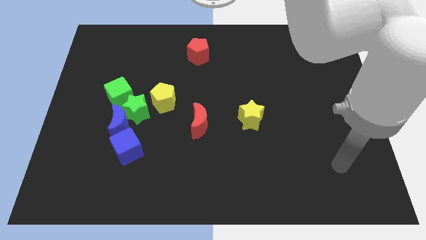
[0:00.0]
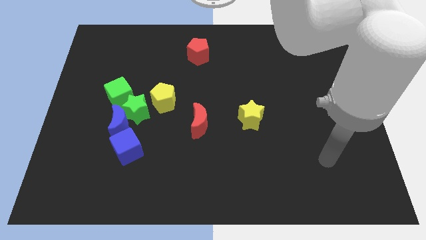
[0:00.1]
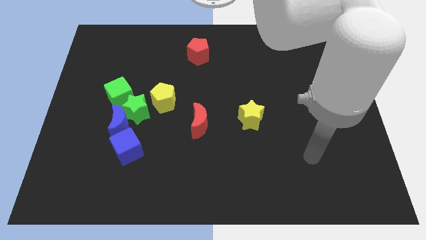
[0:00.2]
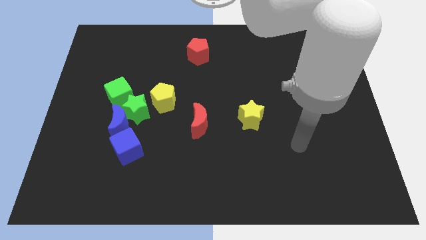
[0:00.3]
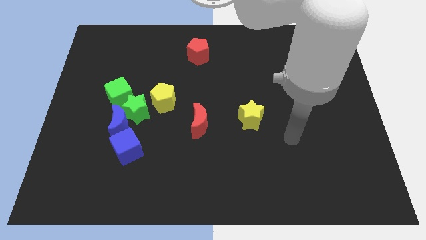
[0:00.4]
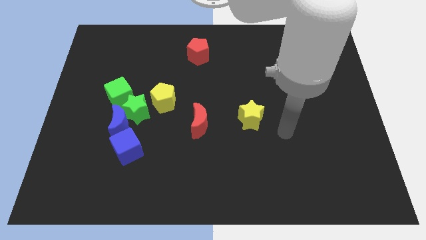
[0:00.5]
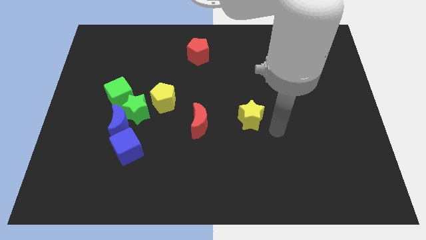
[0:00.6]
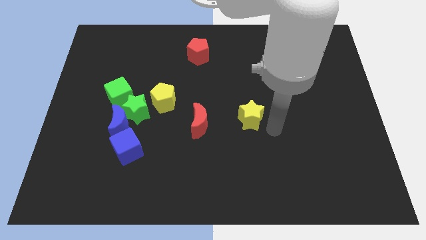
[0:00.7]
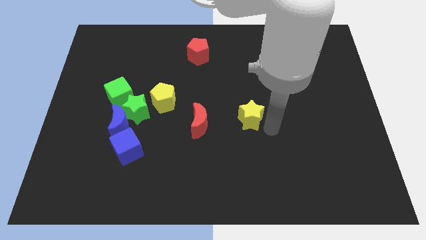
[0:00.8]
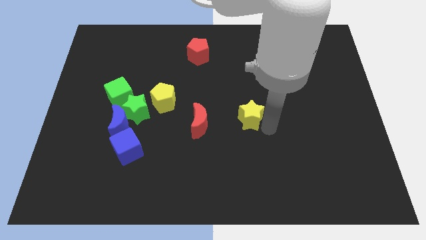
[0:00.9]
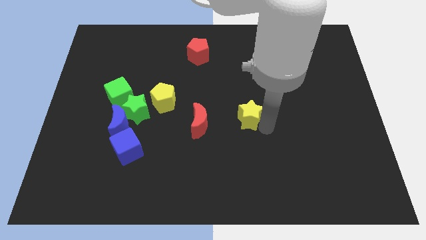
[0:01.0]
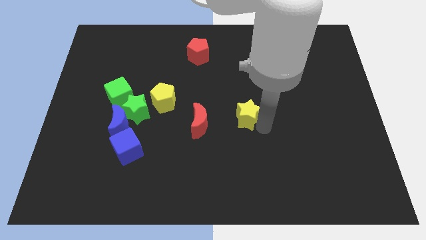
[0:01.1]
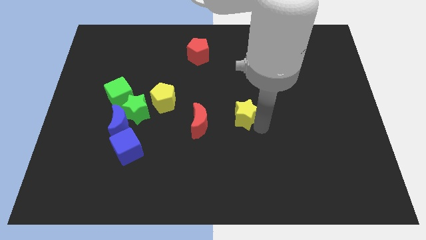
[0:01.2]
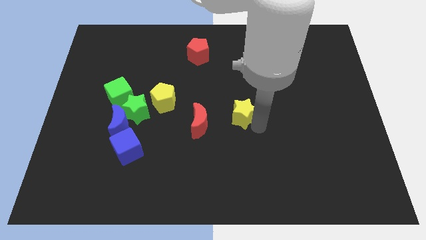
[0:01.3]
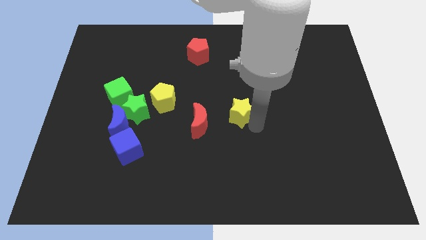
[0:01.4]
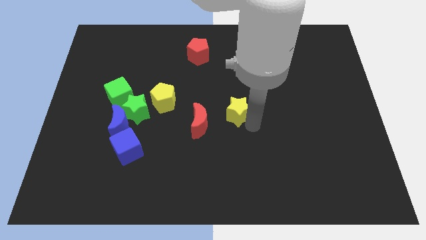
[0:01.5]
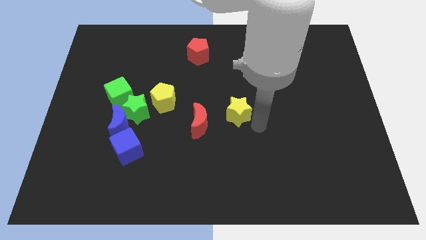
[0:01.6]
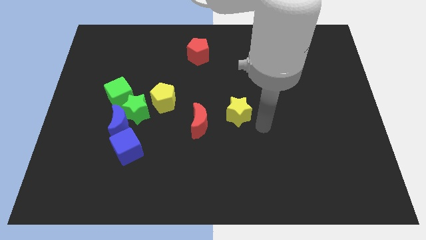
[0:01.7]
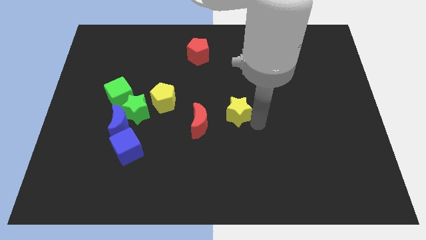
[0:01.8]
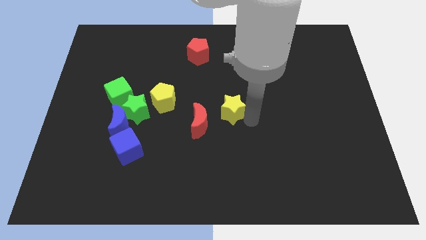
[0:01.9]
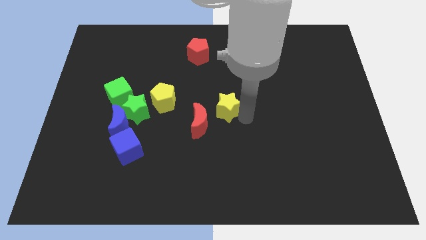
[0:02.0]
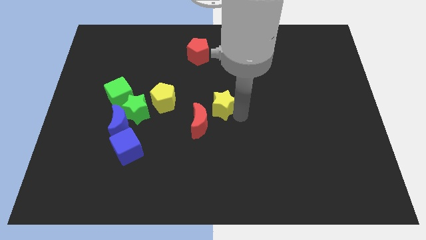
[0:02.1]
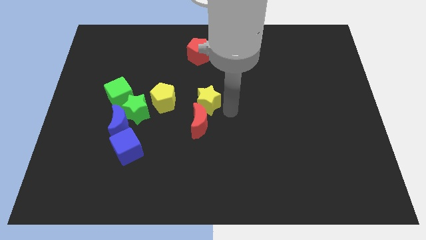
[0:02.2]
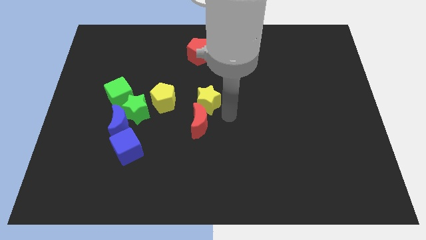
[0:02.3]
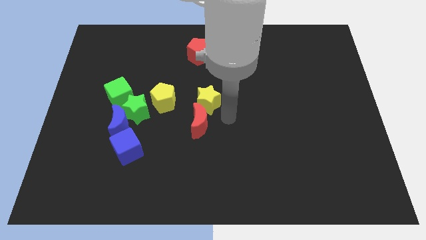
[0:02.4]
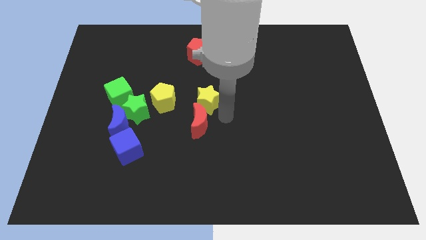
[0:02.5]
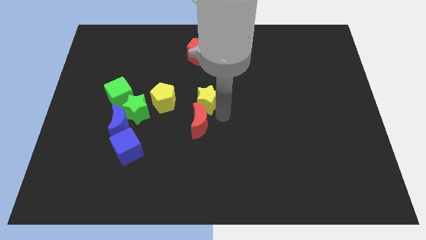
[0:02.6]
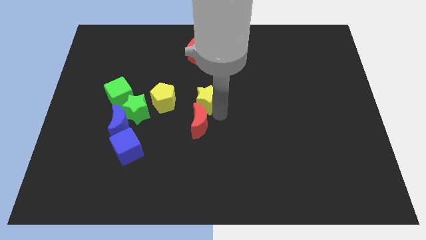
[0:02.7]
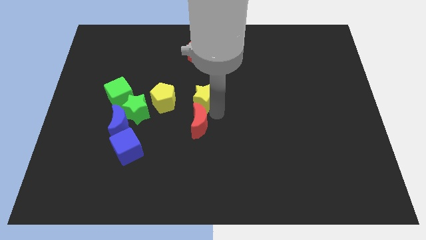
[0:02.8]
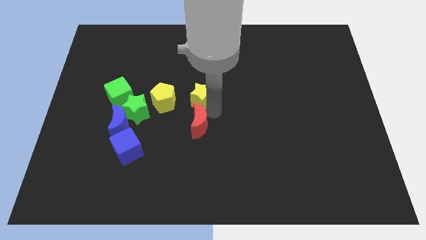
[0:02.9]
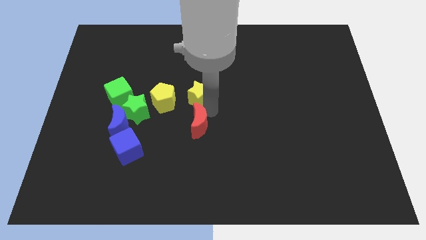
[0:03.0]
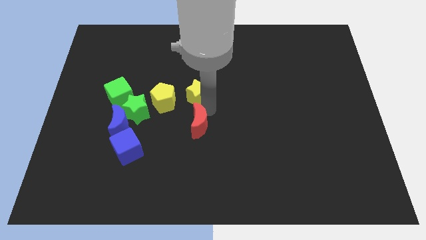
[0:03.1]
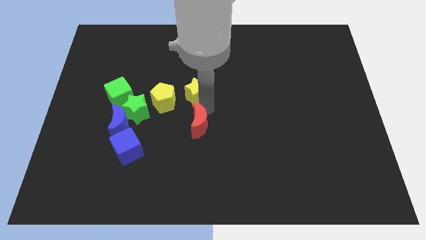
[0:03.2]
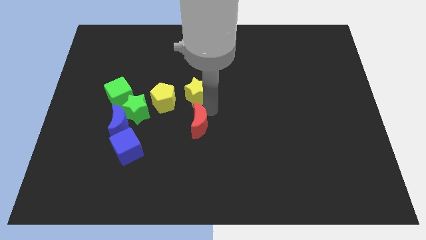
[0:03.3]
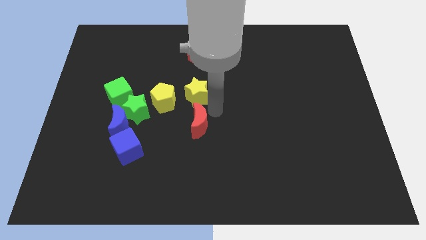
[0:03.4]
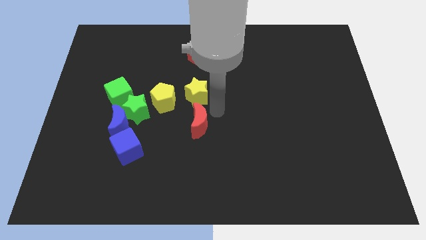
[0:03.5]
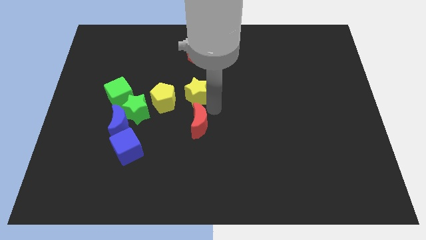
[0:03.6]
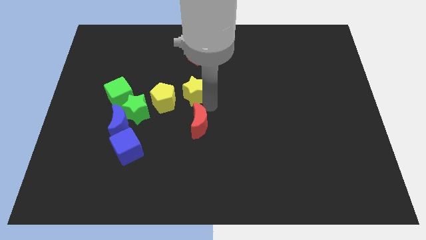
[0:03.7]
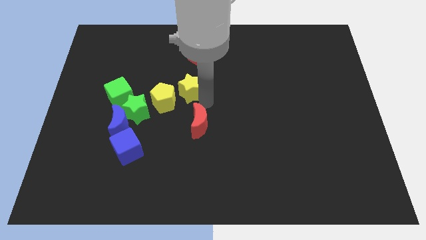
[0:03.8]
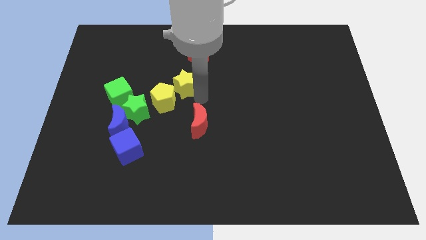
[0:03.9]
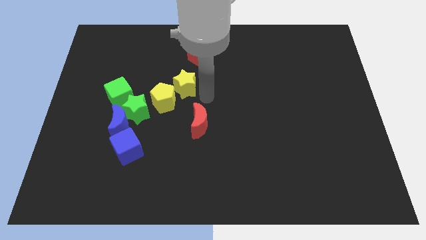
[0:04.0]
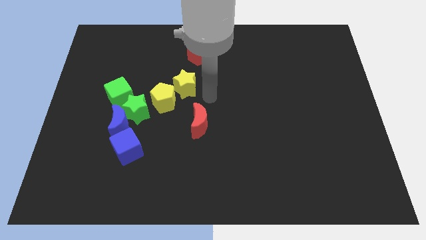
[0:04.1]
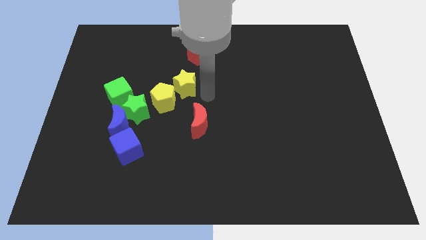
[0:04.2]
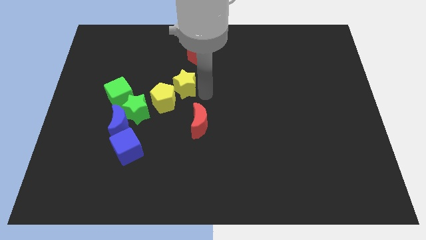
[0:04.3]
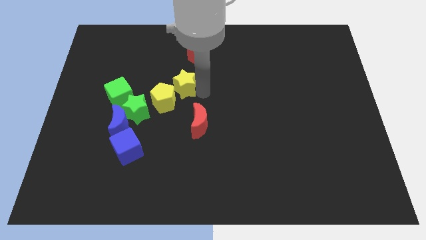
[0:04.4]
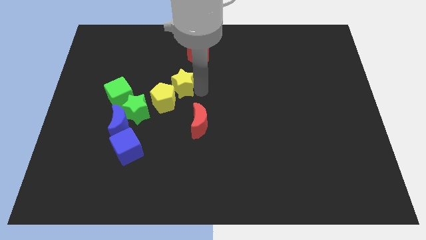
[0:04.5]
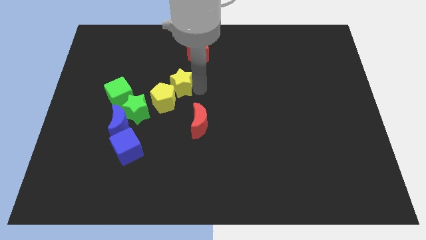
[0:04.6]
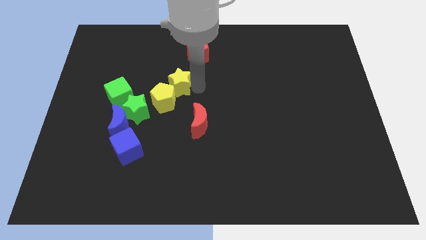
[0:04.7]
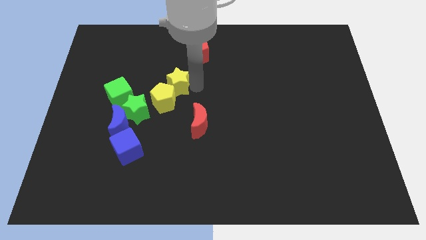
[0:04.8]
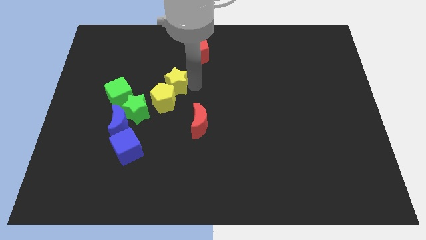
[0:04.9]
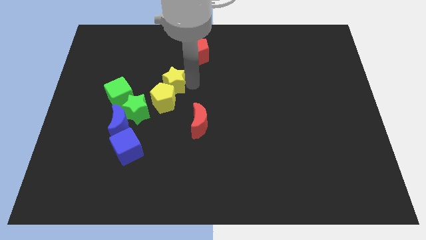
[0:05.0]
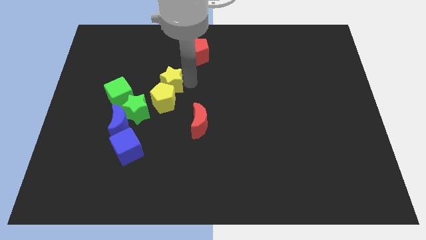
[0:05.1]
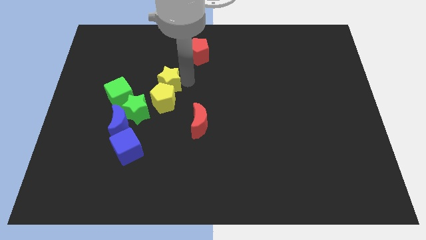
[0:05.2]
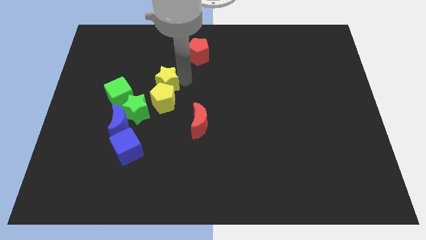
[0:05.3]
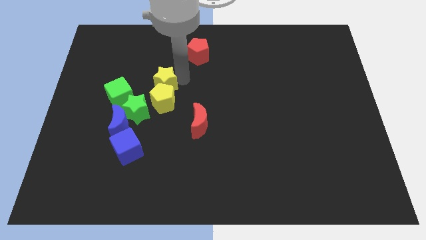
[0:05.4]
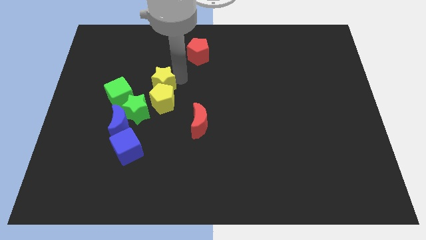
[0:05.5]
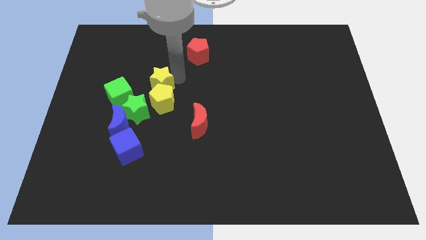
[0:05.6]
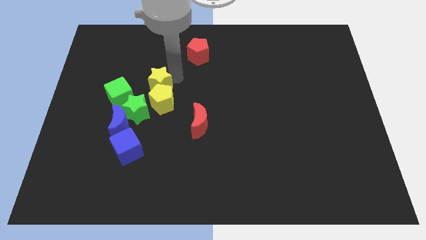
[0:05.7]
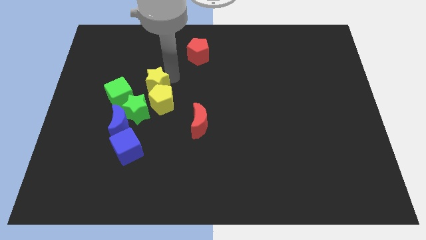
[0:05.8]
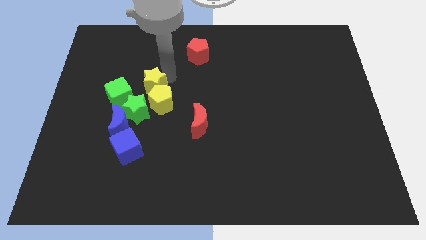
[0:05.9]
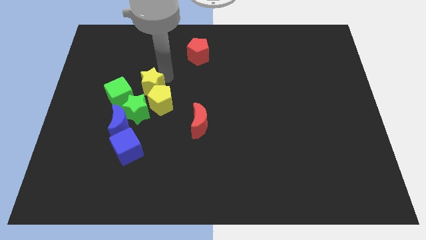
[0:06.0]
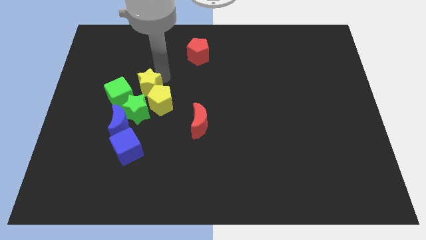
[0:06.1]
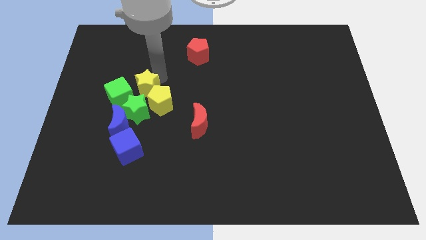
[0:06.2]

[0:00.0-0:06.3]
slide the yellow star above the blue moon
